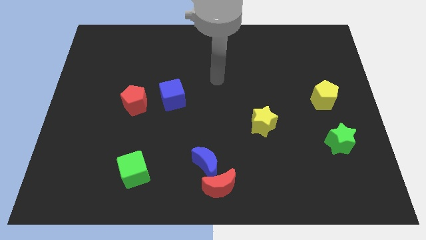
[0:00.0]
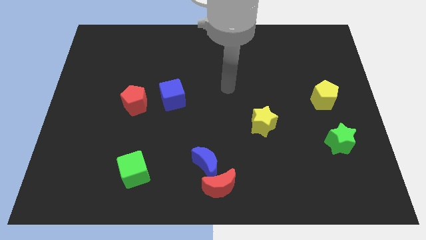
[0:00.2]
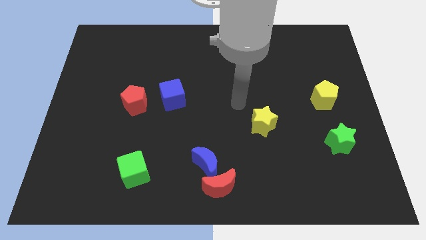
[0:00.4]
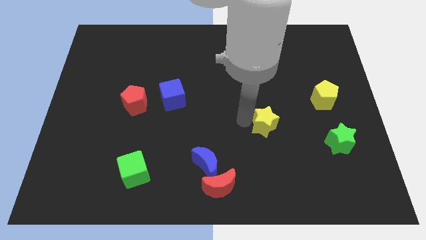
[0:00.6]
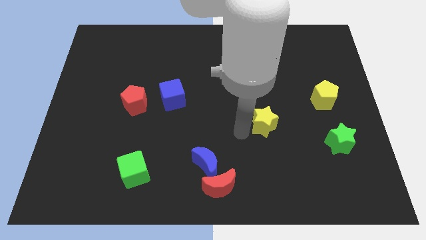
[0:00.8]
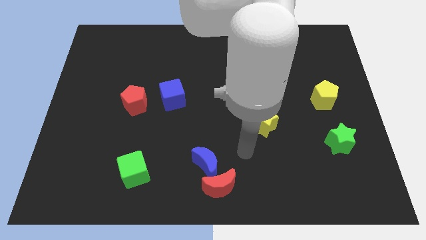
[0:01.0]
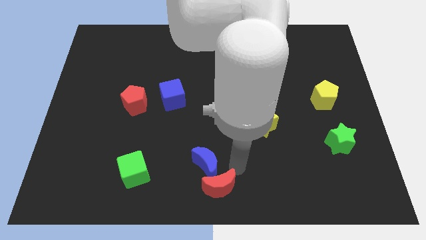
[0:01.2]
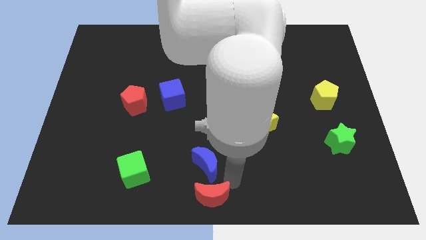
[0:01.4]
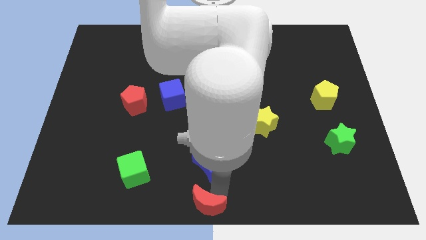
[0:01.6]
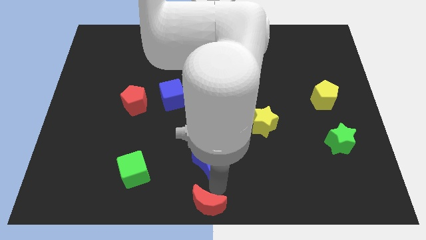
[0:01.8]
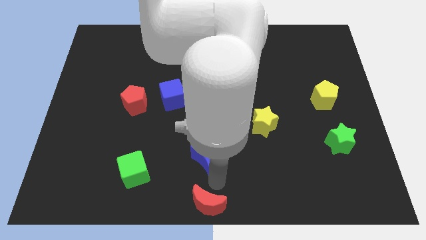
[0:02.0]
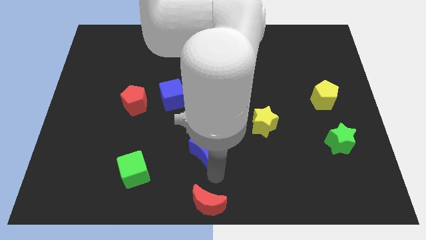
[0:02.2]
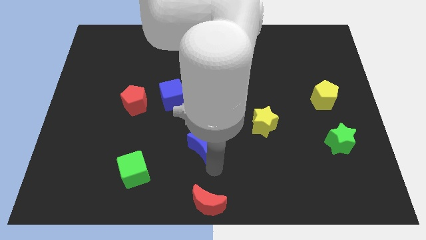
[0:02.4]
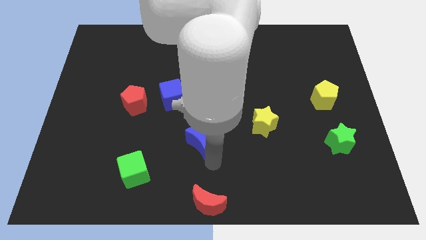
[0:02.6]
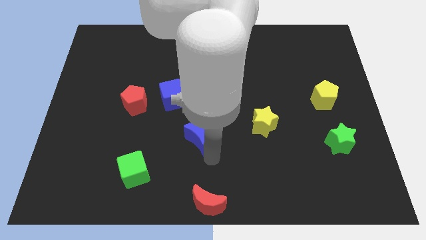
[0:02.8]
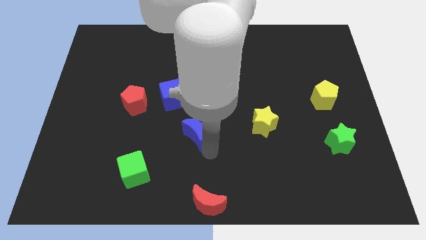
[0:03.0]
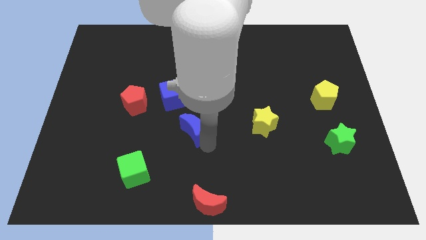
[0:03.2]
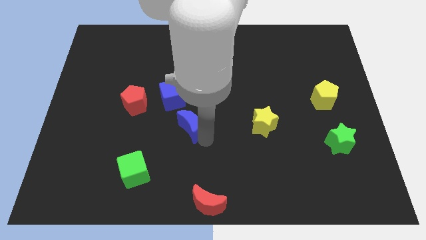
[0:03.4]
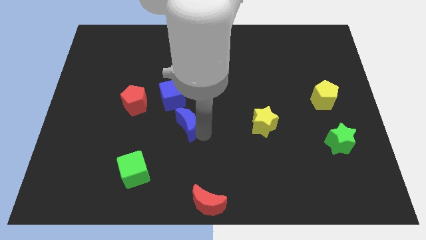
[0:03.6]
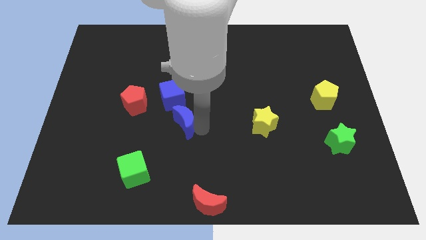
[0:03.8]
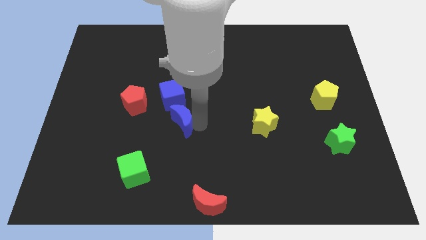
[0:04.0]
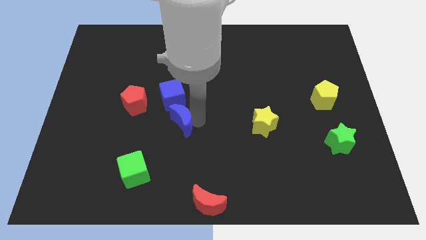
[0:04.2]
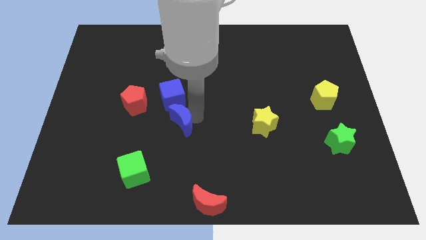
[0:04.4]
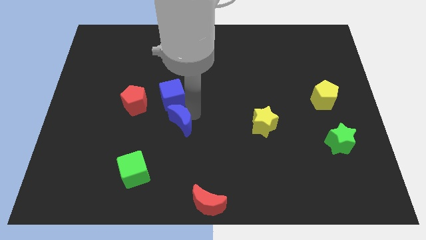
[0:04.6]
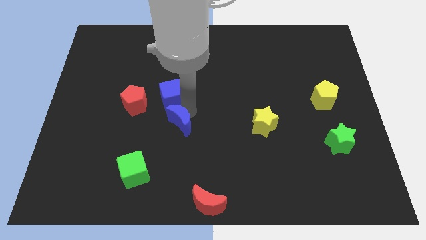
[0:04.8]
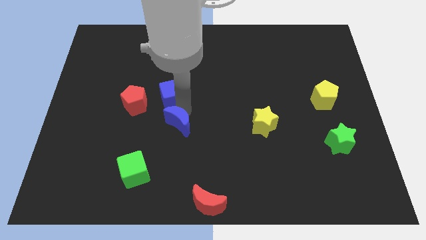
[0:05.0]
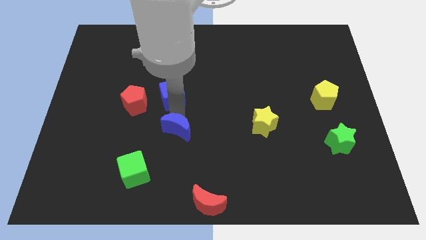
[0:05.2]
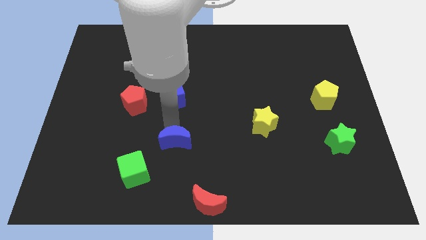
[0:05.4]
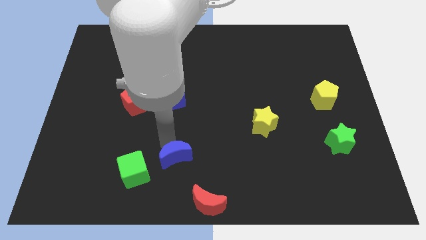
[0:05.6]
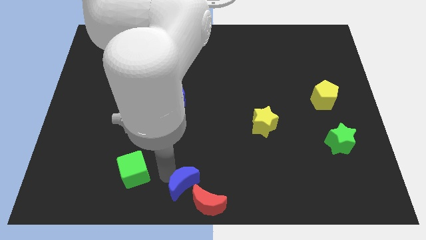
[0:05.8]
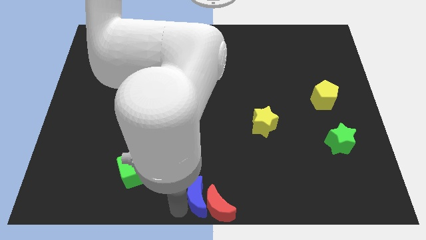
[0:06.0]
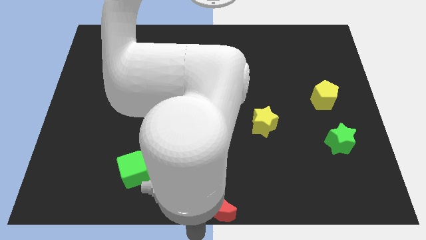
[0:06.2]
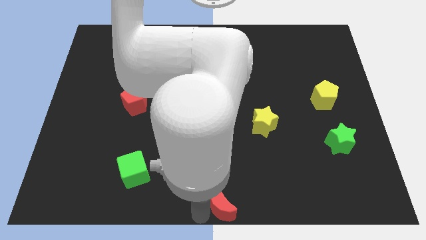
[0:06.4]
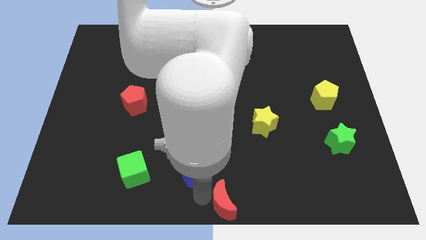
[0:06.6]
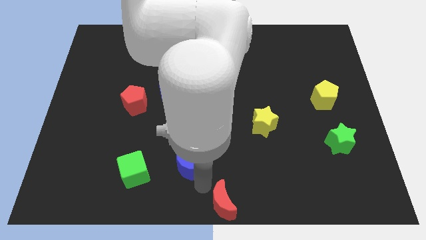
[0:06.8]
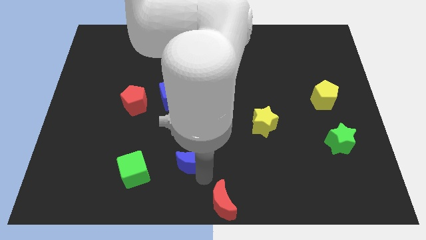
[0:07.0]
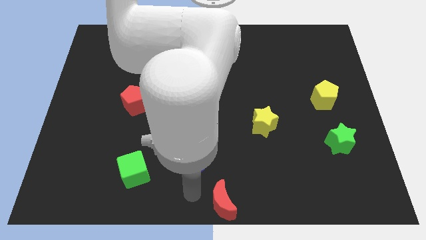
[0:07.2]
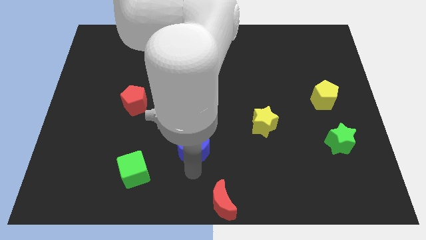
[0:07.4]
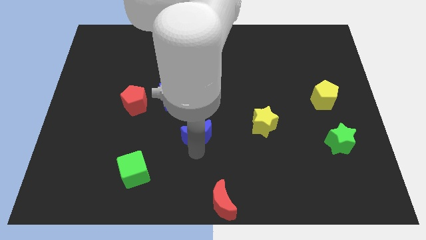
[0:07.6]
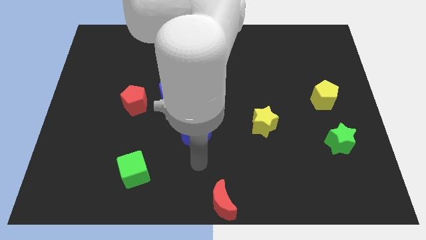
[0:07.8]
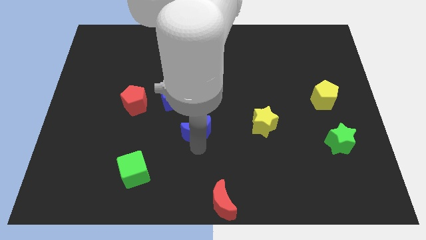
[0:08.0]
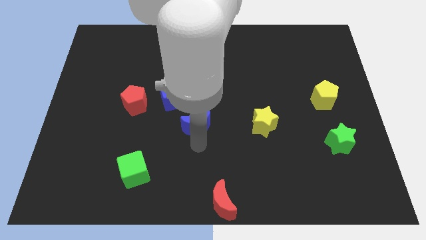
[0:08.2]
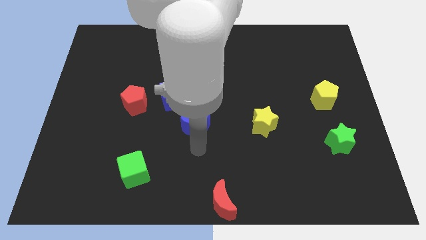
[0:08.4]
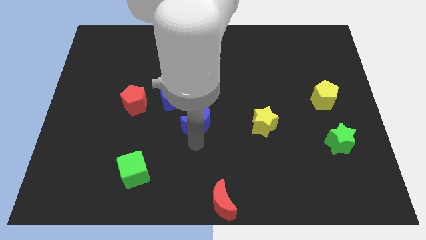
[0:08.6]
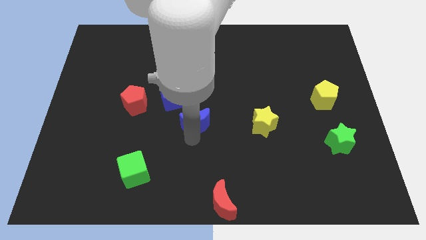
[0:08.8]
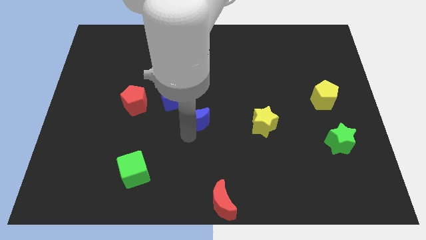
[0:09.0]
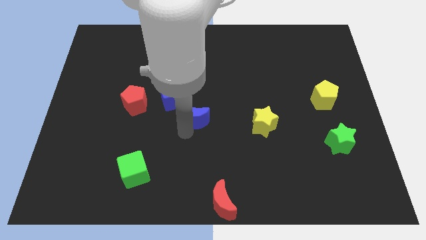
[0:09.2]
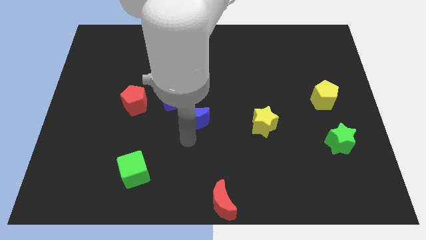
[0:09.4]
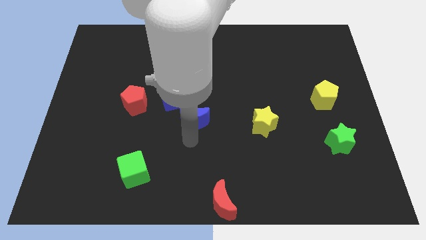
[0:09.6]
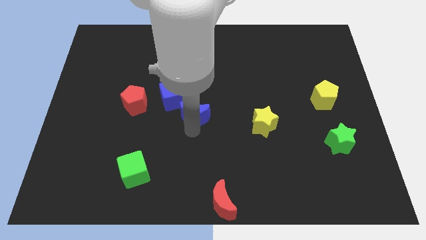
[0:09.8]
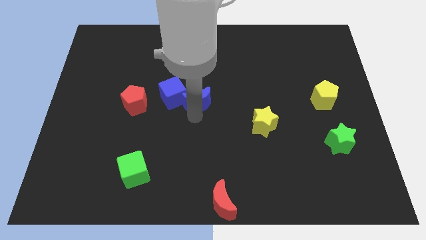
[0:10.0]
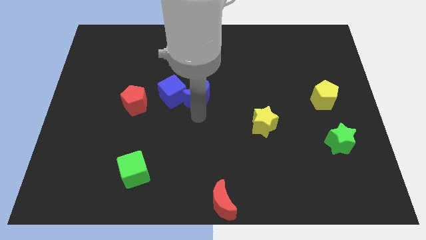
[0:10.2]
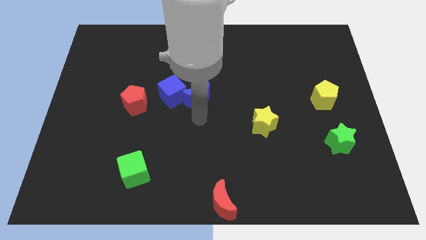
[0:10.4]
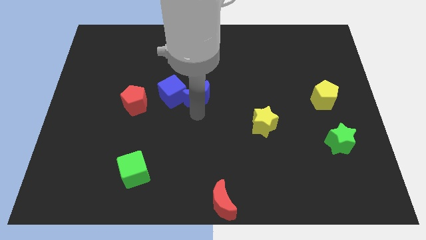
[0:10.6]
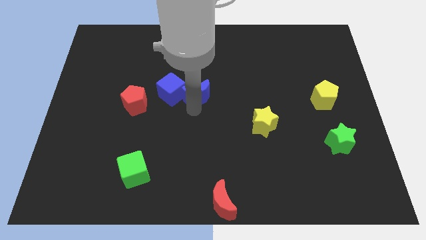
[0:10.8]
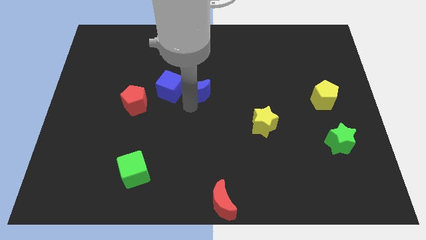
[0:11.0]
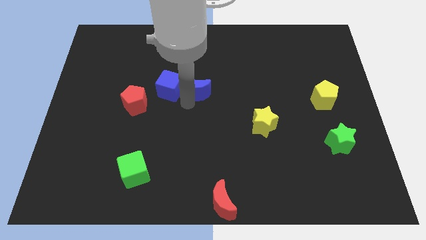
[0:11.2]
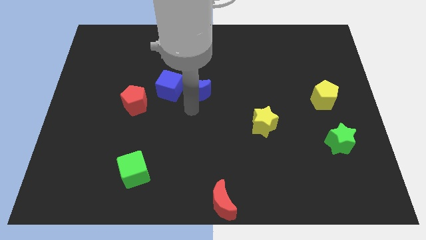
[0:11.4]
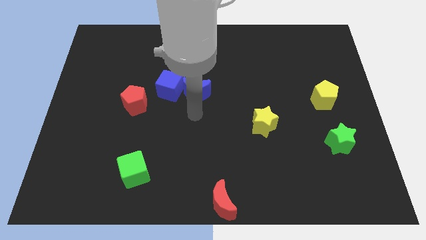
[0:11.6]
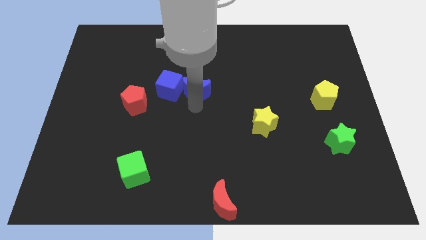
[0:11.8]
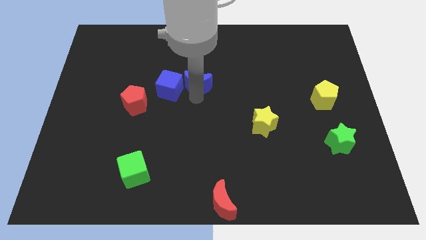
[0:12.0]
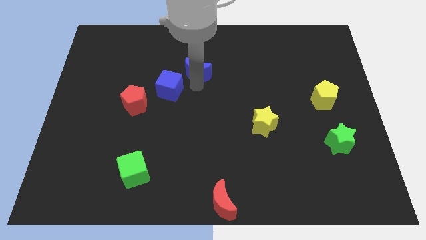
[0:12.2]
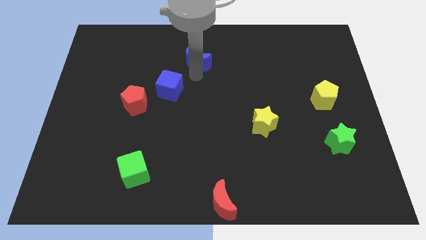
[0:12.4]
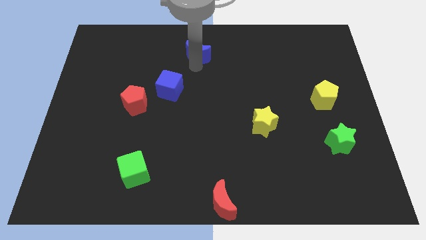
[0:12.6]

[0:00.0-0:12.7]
slide the blue moon to the towards your base

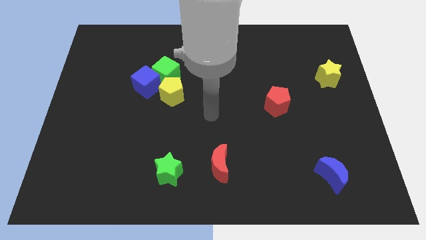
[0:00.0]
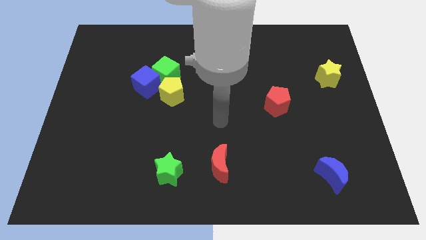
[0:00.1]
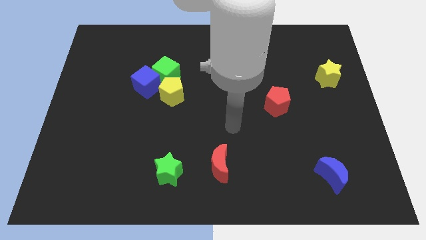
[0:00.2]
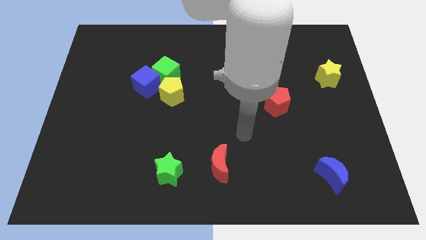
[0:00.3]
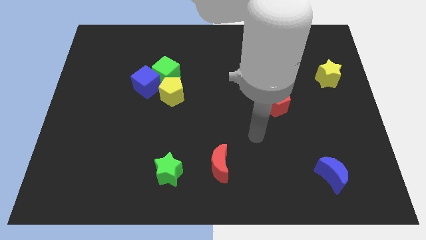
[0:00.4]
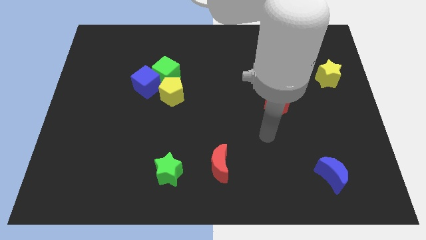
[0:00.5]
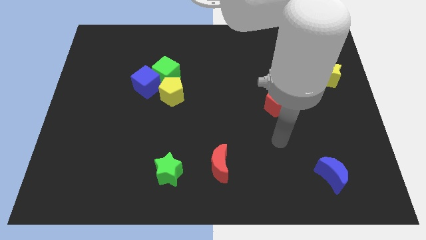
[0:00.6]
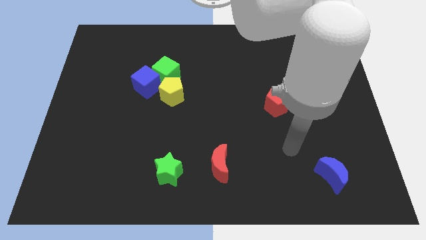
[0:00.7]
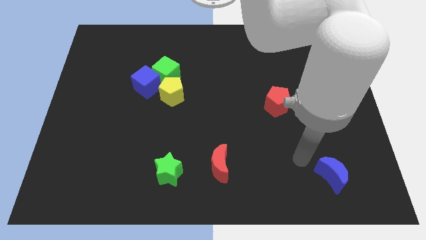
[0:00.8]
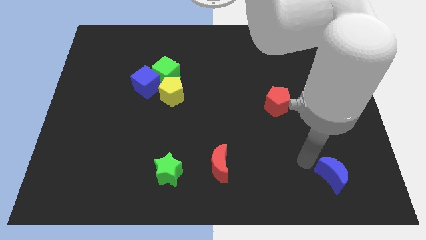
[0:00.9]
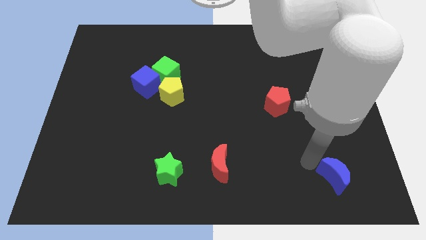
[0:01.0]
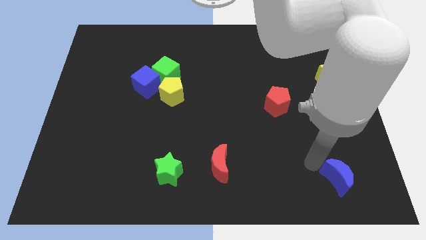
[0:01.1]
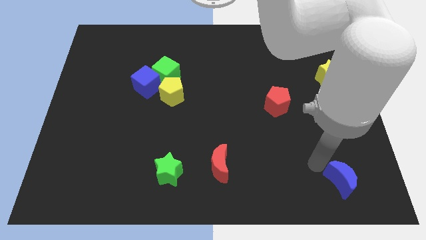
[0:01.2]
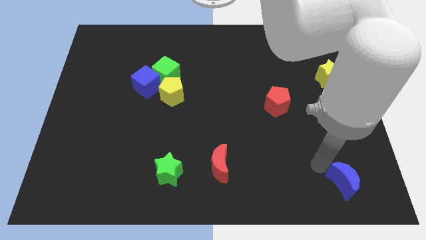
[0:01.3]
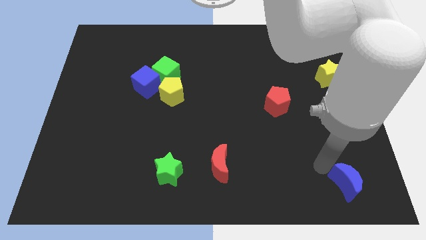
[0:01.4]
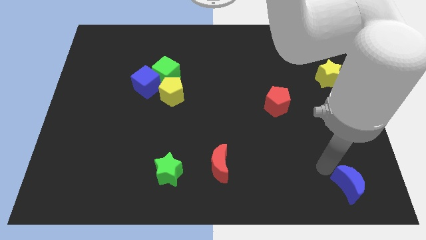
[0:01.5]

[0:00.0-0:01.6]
put the blue moon to the lower right corner
